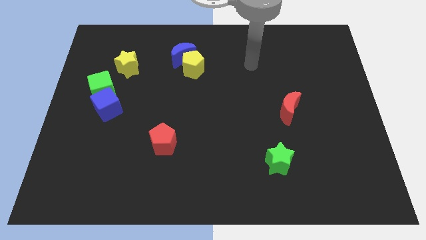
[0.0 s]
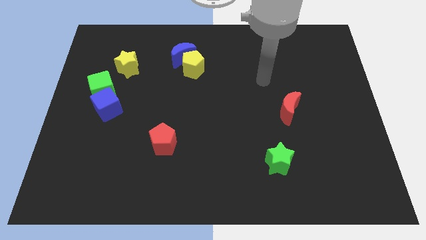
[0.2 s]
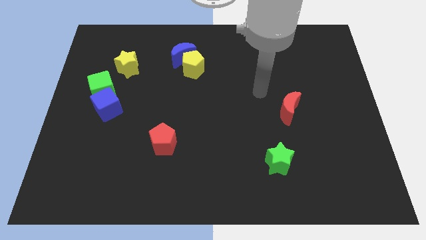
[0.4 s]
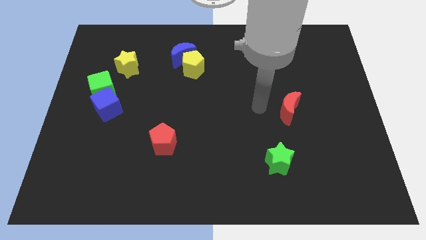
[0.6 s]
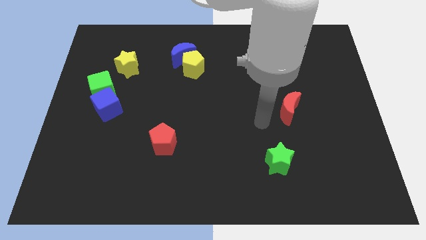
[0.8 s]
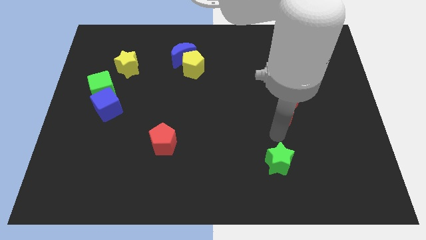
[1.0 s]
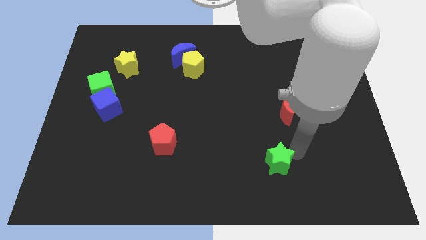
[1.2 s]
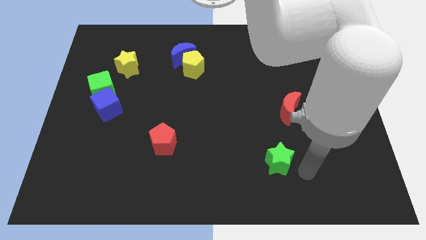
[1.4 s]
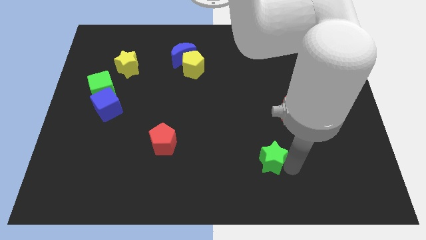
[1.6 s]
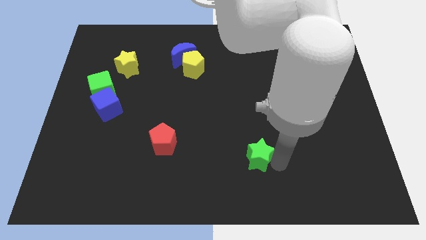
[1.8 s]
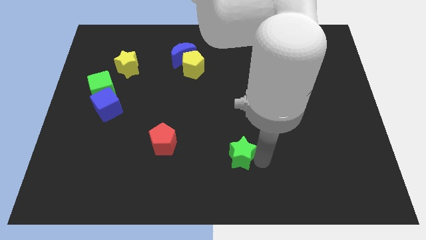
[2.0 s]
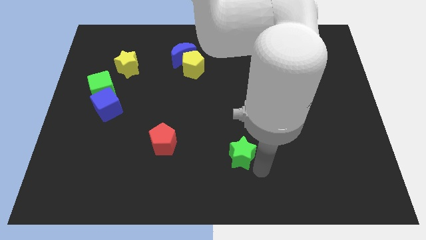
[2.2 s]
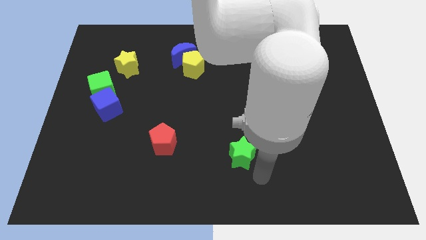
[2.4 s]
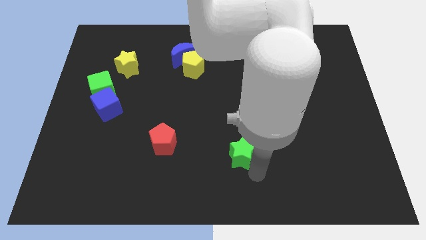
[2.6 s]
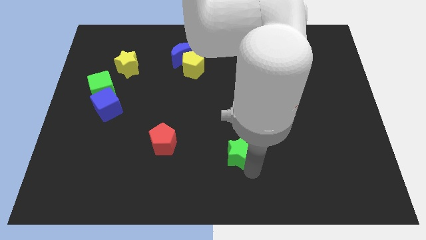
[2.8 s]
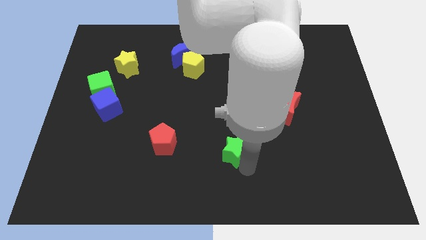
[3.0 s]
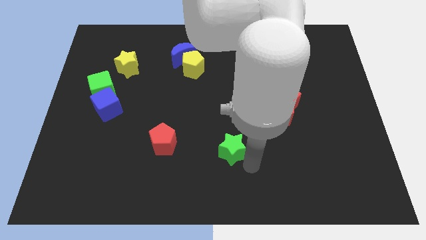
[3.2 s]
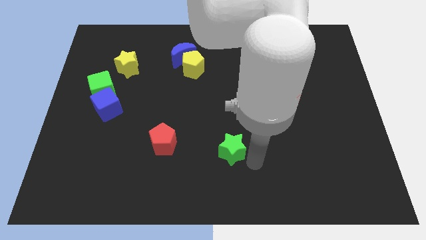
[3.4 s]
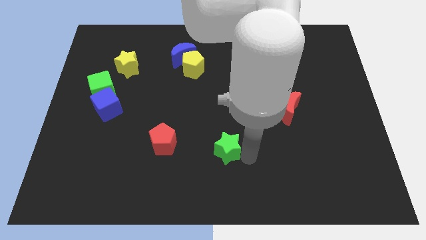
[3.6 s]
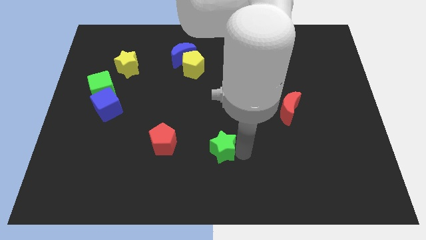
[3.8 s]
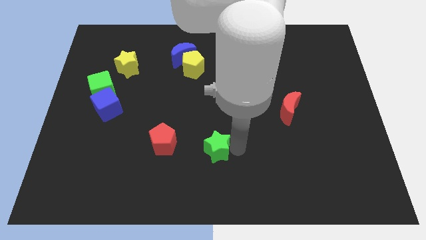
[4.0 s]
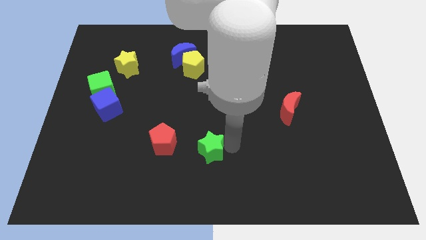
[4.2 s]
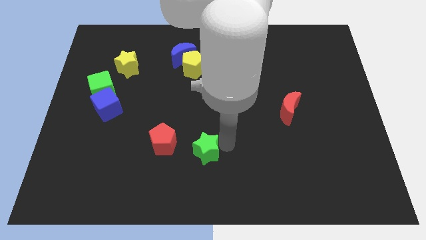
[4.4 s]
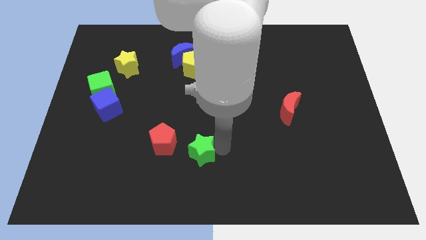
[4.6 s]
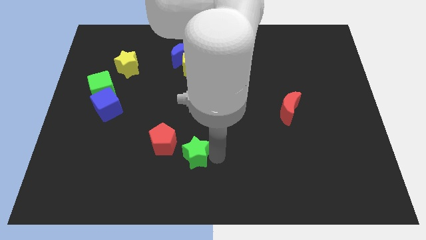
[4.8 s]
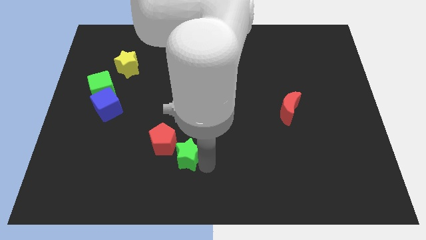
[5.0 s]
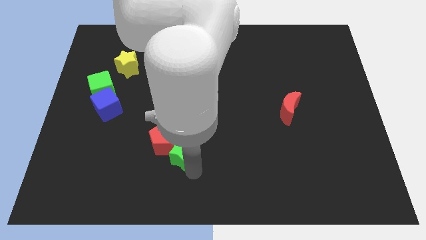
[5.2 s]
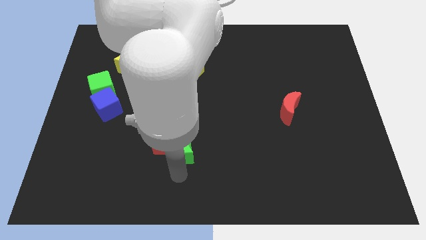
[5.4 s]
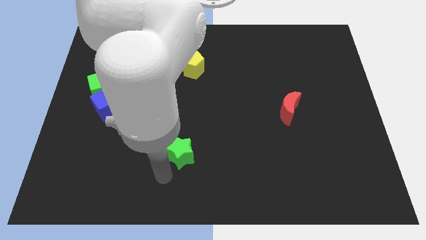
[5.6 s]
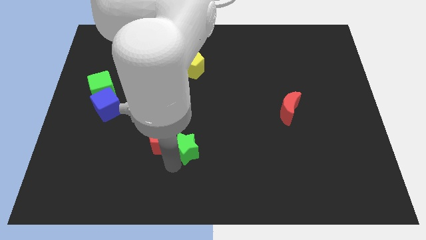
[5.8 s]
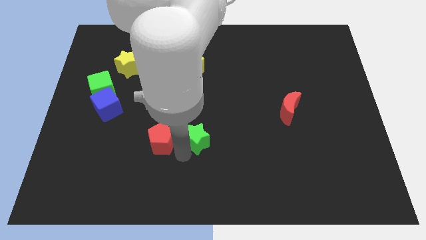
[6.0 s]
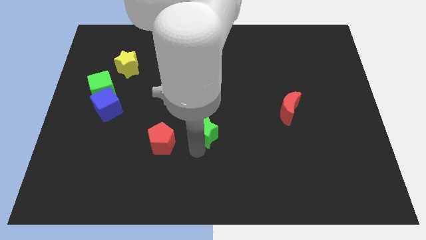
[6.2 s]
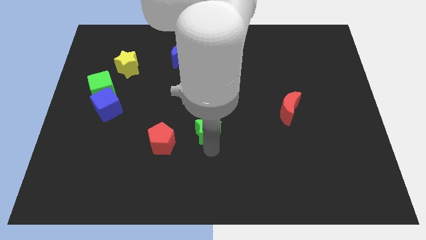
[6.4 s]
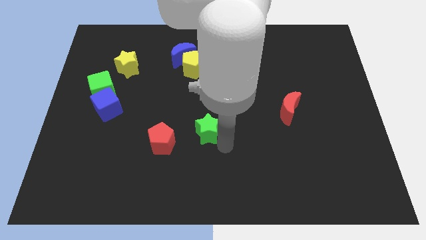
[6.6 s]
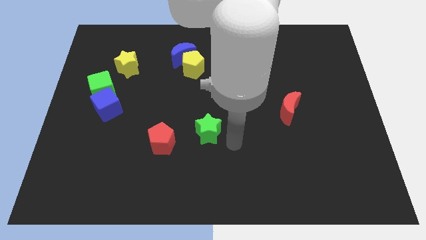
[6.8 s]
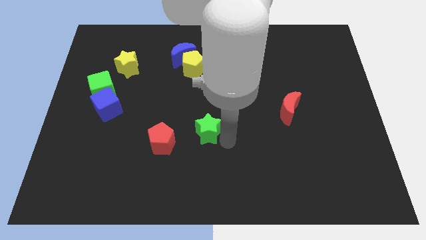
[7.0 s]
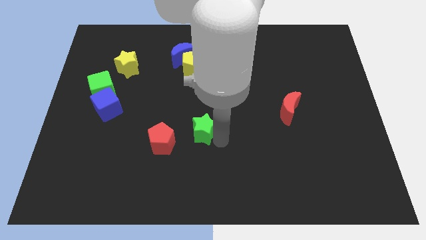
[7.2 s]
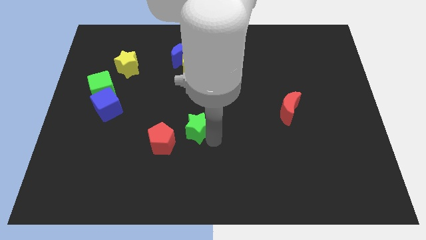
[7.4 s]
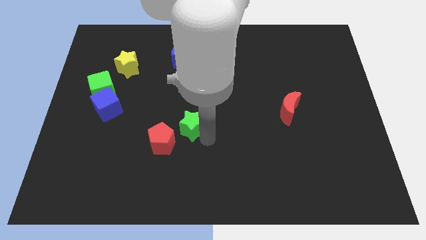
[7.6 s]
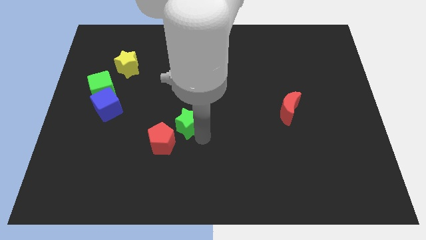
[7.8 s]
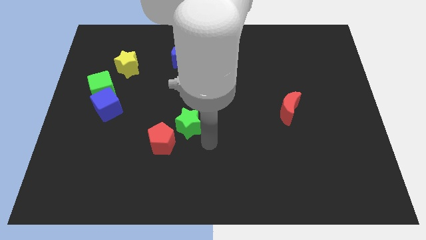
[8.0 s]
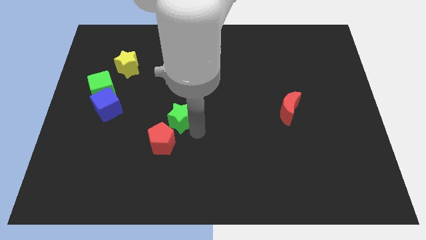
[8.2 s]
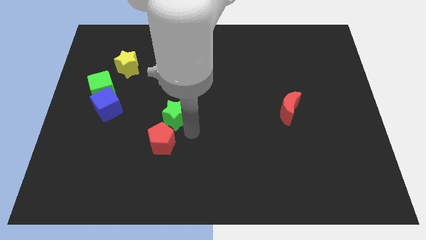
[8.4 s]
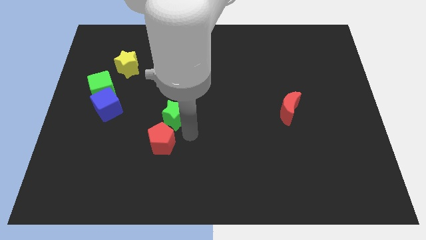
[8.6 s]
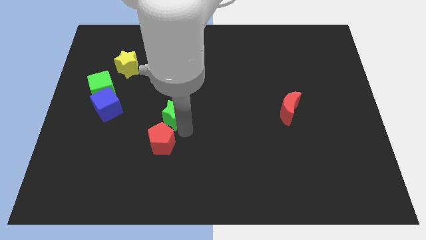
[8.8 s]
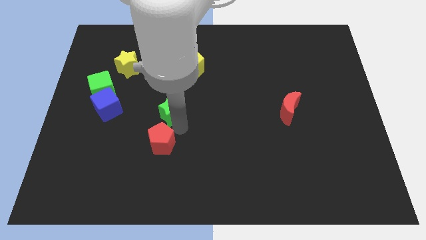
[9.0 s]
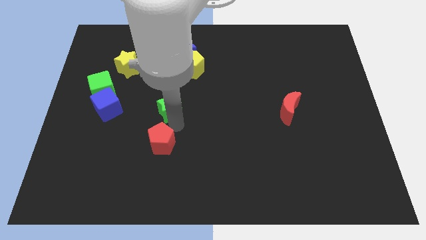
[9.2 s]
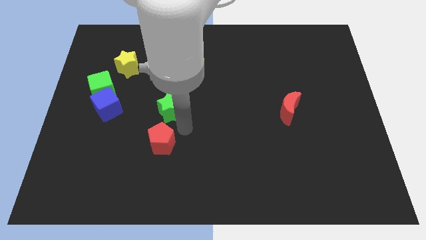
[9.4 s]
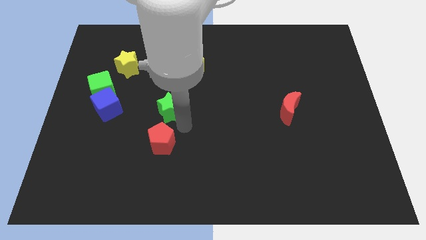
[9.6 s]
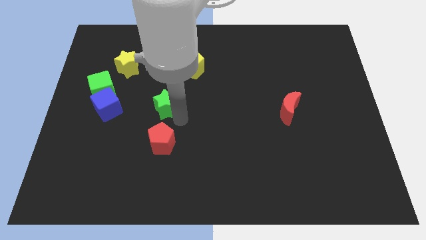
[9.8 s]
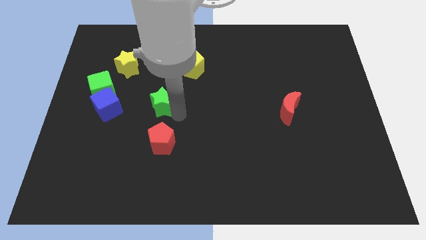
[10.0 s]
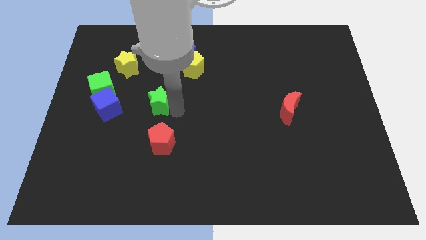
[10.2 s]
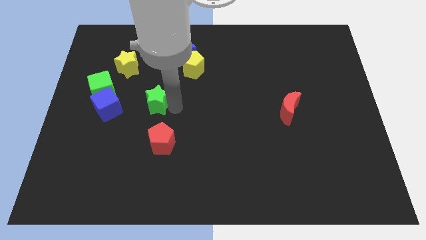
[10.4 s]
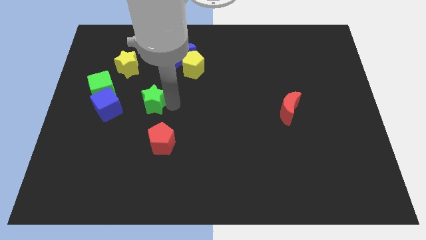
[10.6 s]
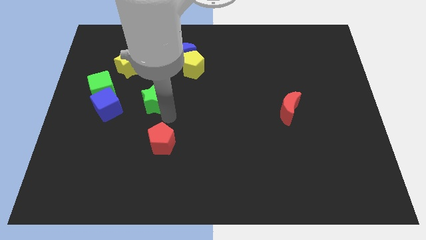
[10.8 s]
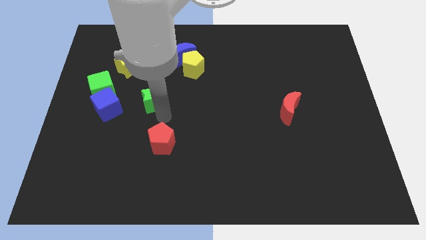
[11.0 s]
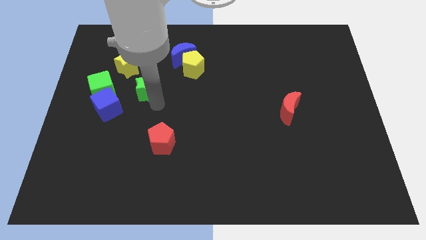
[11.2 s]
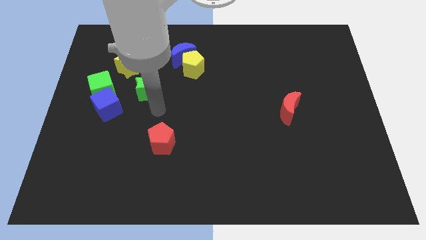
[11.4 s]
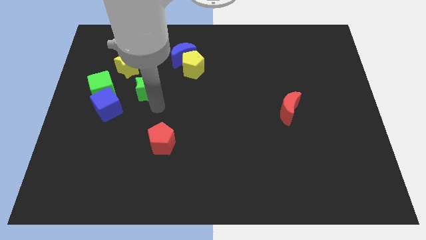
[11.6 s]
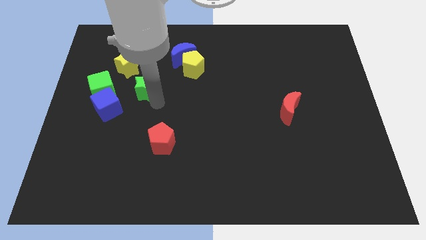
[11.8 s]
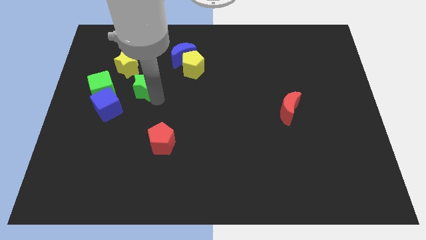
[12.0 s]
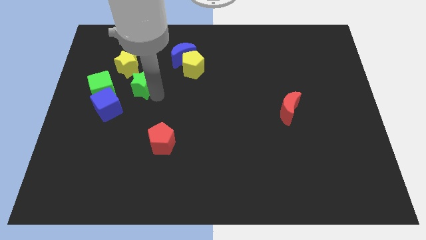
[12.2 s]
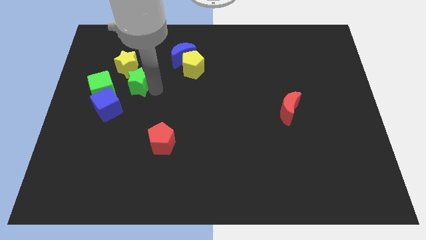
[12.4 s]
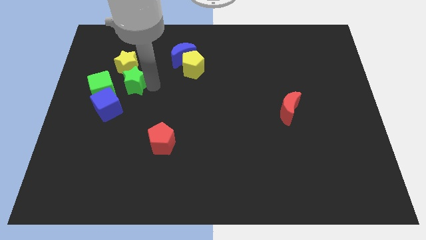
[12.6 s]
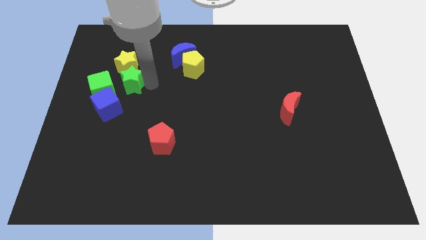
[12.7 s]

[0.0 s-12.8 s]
push the green star to the yellow star
